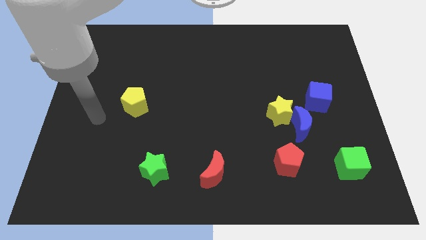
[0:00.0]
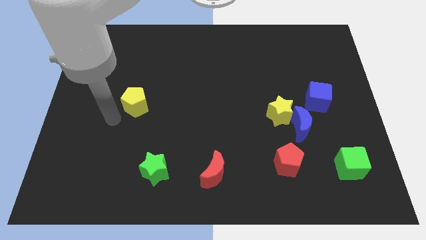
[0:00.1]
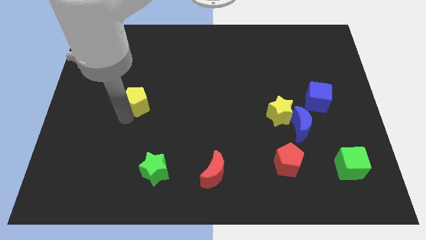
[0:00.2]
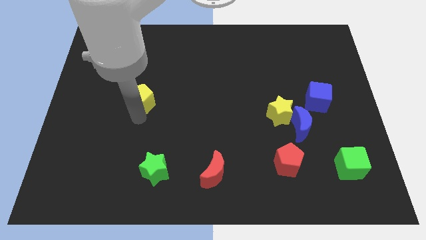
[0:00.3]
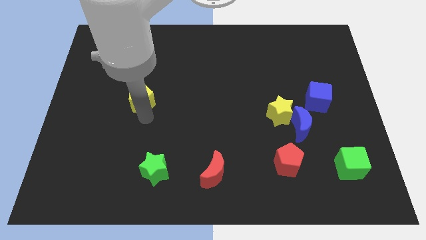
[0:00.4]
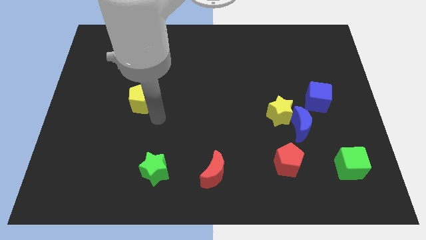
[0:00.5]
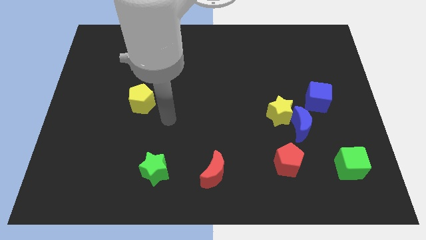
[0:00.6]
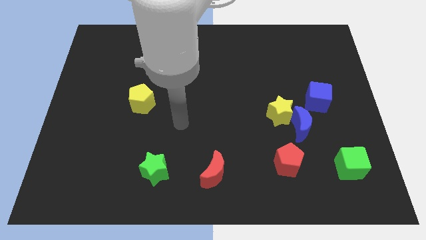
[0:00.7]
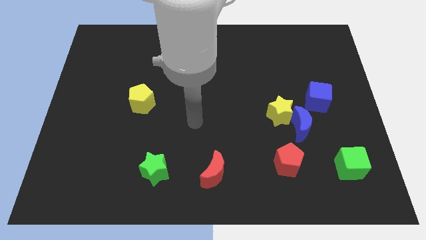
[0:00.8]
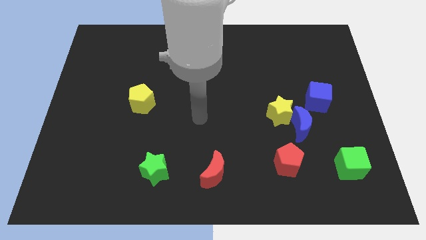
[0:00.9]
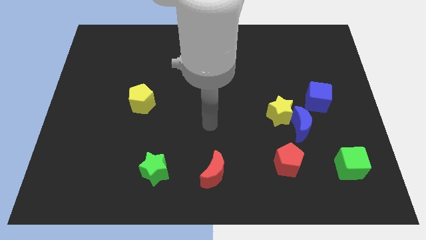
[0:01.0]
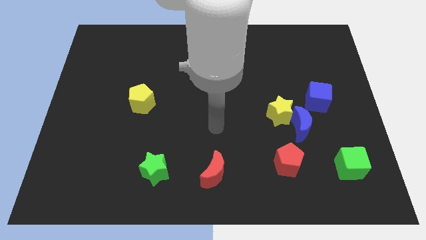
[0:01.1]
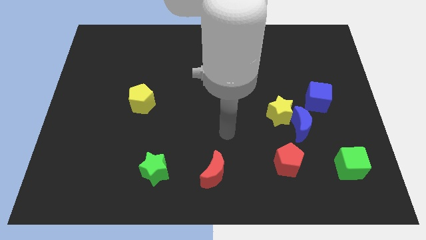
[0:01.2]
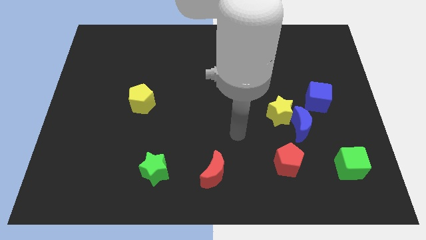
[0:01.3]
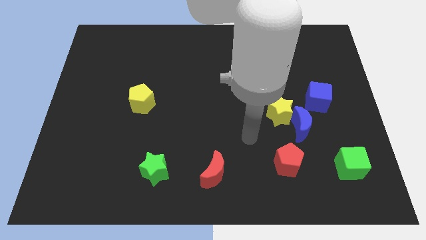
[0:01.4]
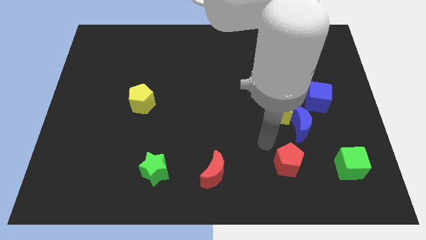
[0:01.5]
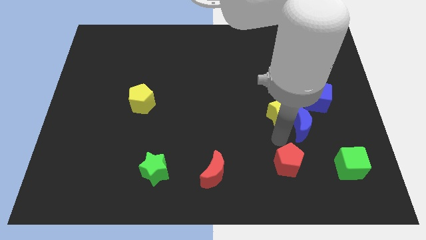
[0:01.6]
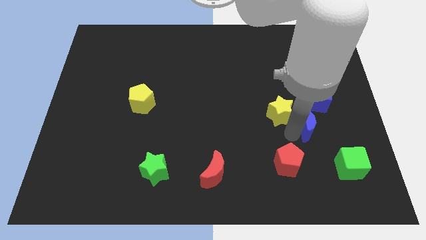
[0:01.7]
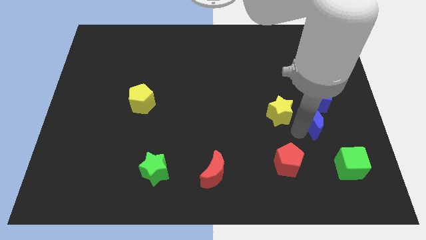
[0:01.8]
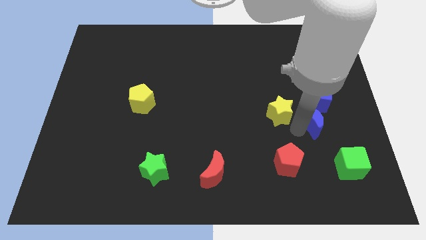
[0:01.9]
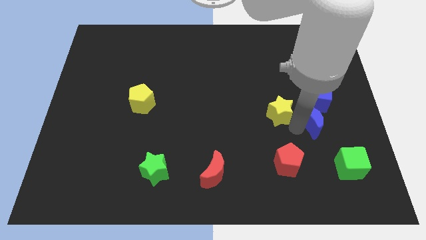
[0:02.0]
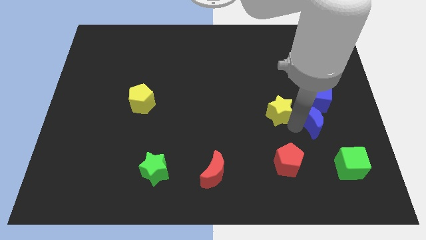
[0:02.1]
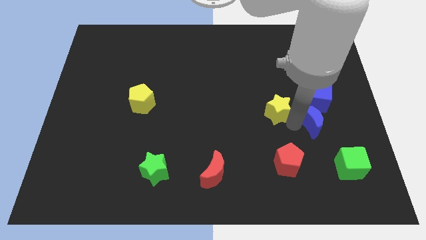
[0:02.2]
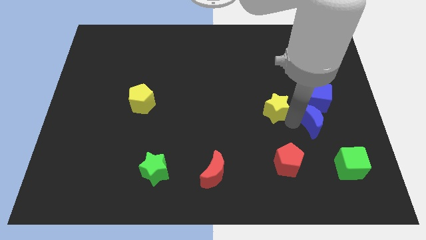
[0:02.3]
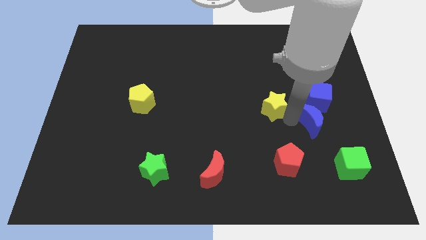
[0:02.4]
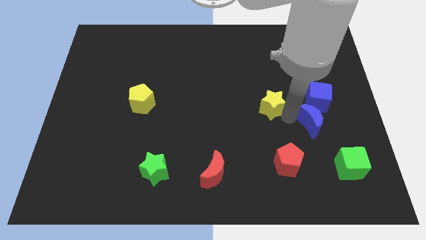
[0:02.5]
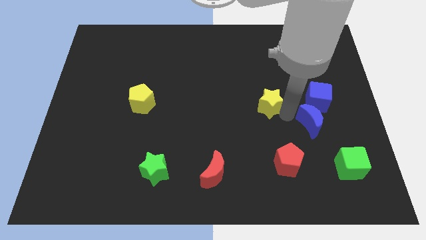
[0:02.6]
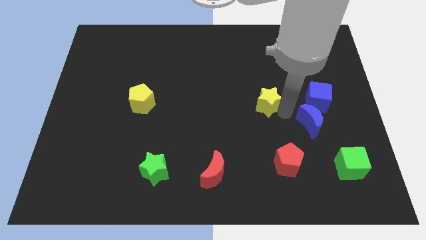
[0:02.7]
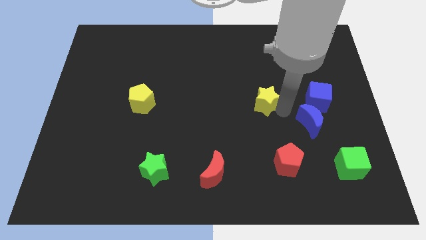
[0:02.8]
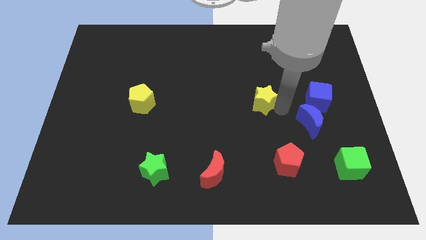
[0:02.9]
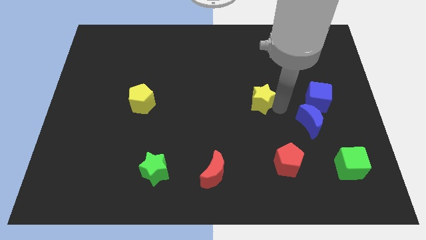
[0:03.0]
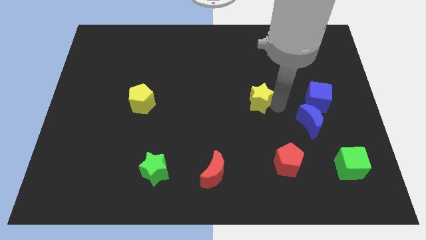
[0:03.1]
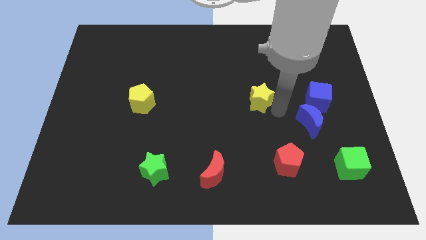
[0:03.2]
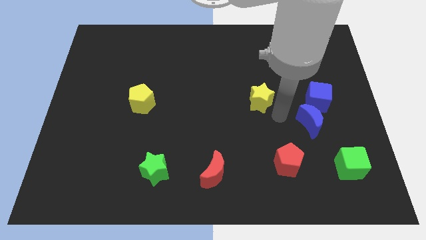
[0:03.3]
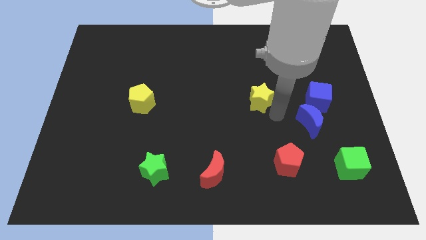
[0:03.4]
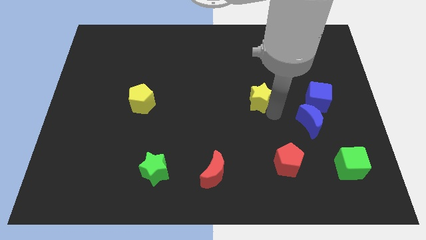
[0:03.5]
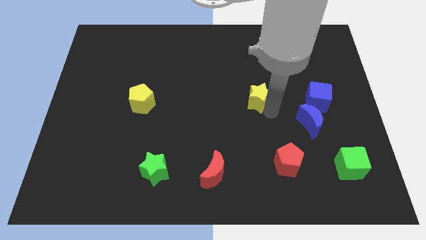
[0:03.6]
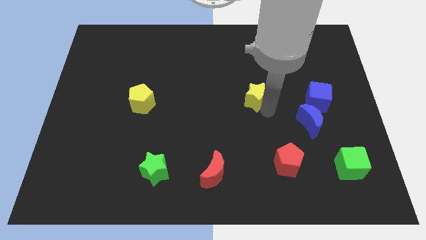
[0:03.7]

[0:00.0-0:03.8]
slide the yellow star a bit up and left

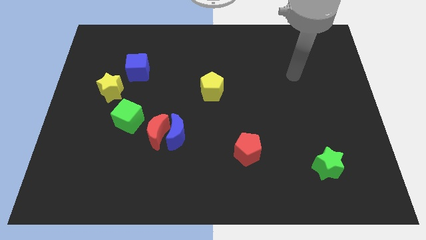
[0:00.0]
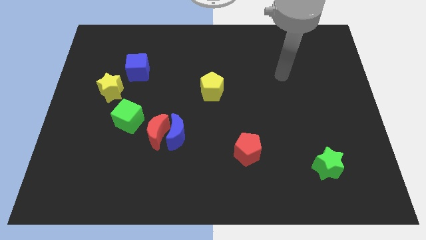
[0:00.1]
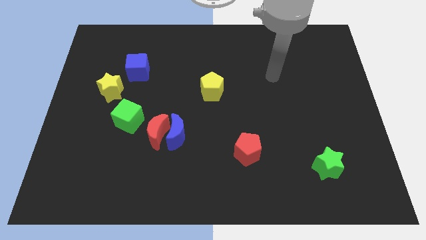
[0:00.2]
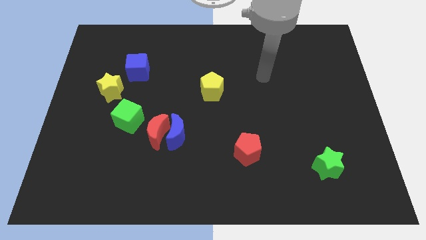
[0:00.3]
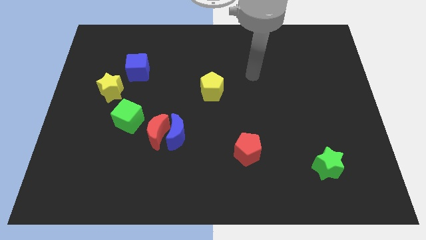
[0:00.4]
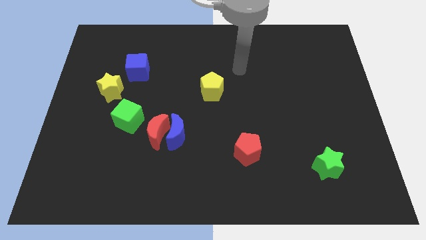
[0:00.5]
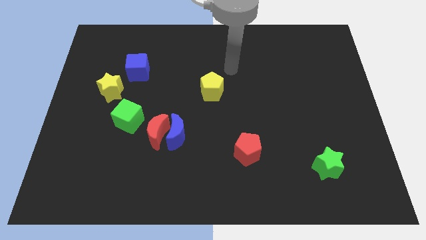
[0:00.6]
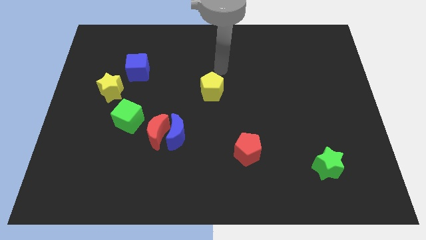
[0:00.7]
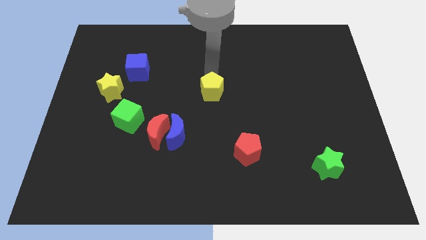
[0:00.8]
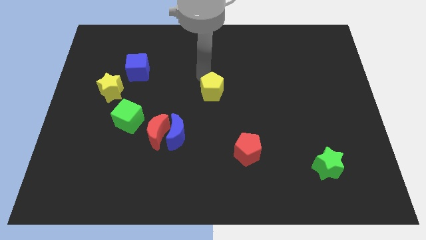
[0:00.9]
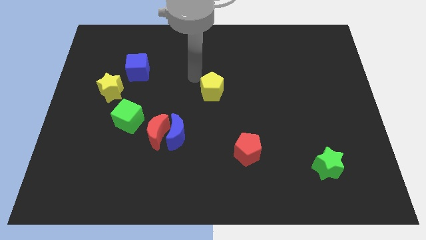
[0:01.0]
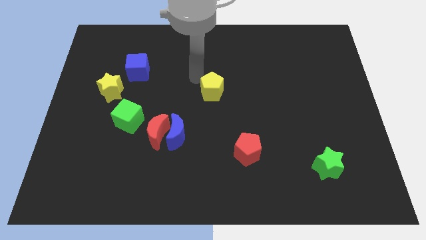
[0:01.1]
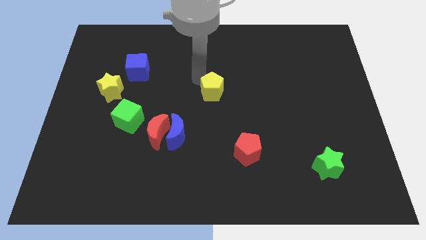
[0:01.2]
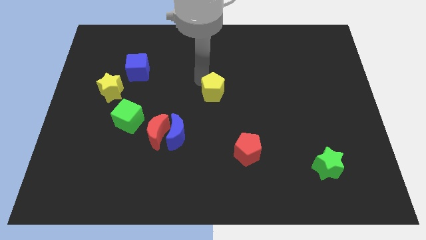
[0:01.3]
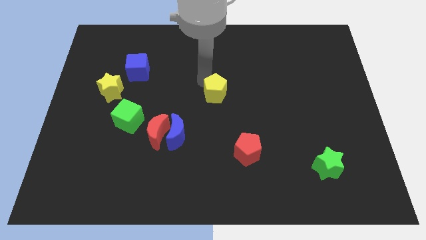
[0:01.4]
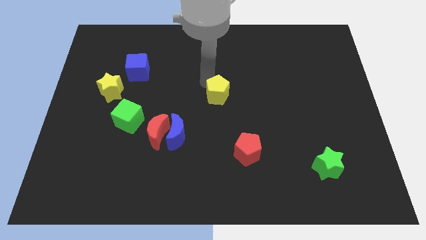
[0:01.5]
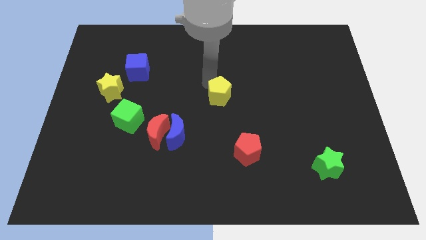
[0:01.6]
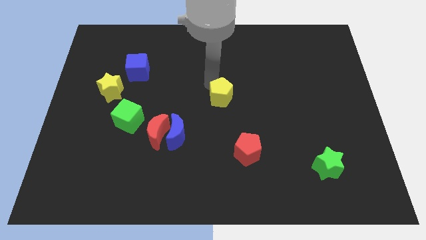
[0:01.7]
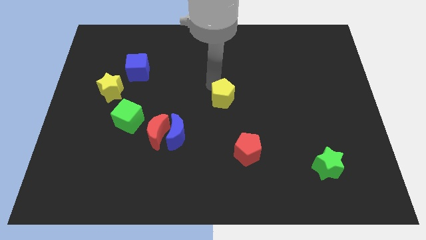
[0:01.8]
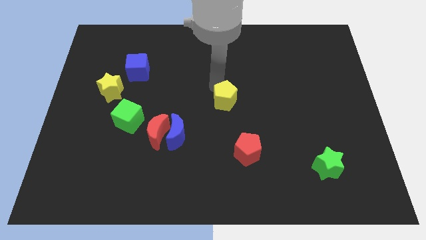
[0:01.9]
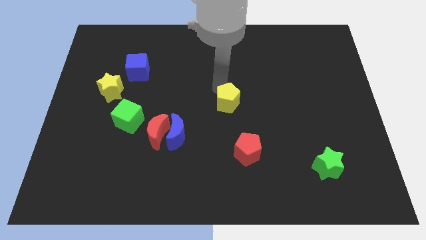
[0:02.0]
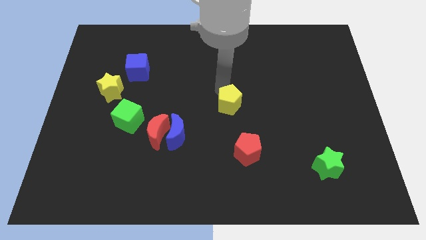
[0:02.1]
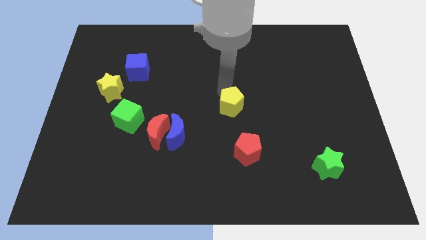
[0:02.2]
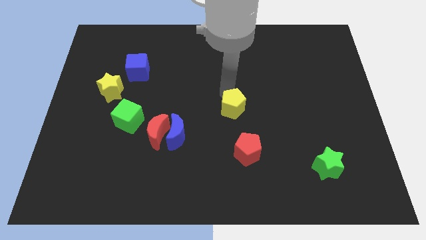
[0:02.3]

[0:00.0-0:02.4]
move the yellow pentagon slightly down and to the right diagonally

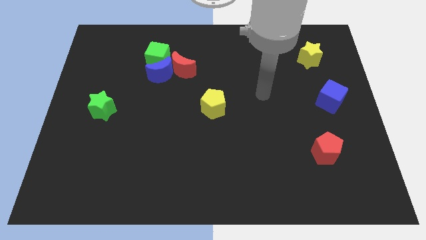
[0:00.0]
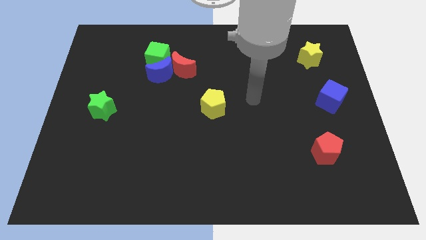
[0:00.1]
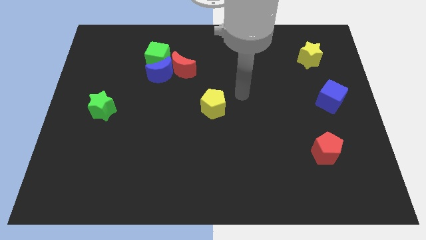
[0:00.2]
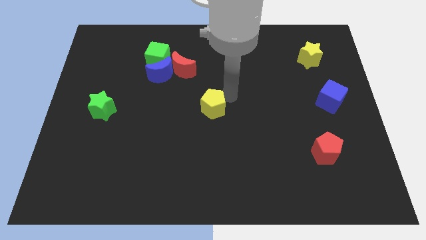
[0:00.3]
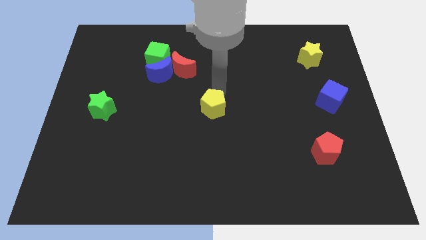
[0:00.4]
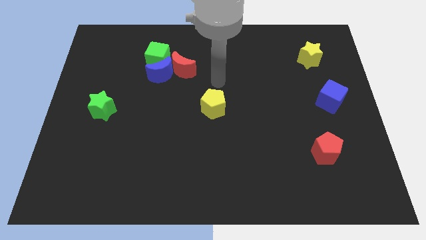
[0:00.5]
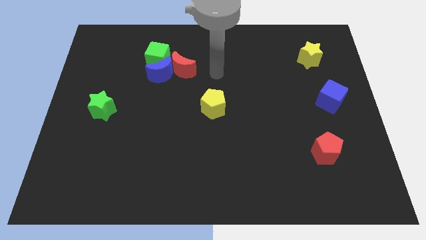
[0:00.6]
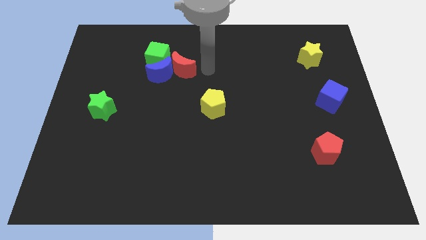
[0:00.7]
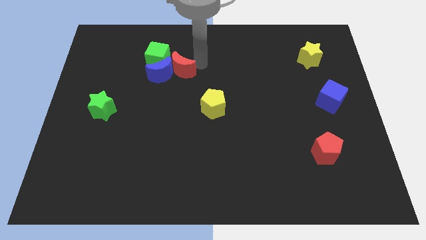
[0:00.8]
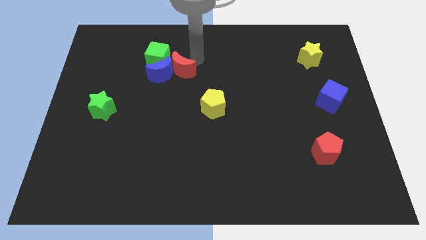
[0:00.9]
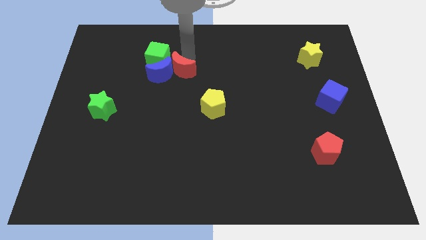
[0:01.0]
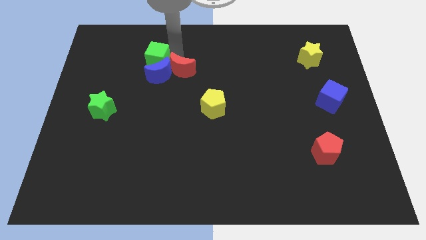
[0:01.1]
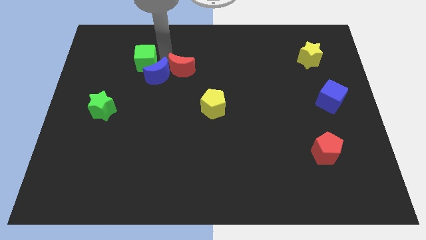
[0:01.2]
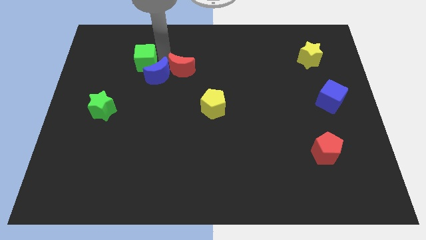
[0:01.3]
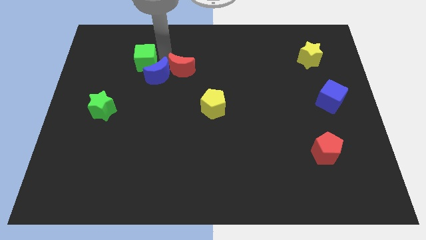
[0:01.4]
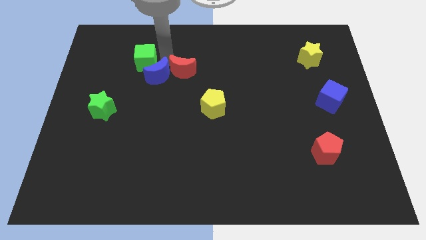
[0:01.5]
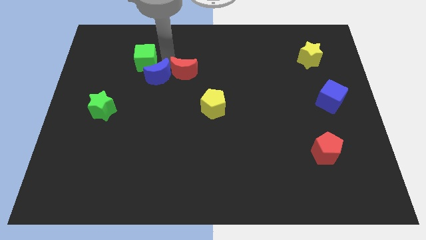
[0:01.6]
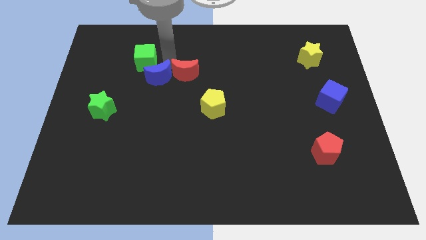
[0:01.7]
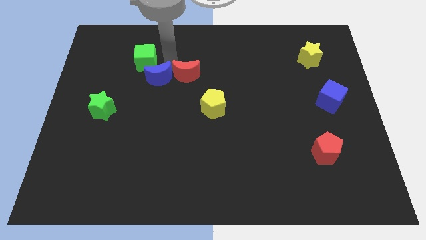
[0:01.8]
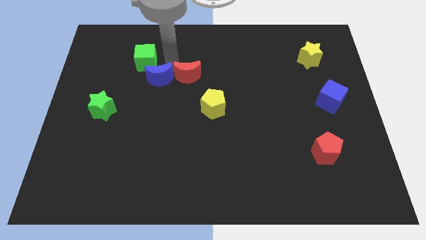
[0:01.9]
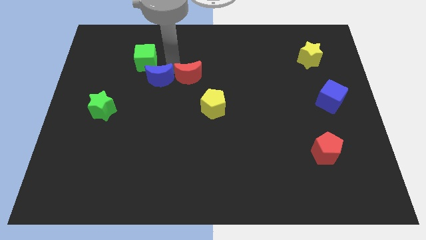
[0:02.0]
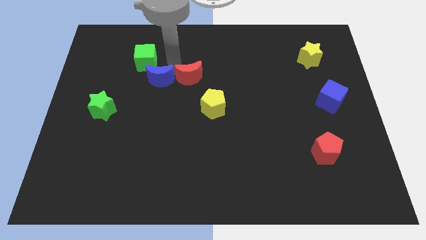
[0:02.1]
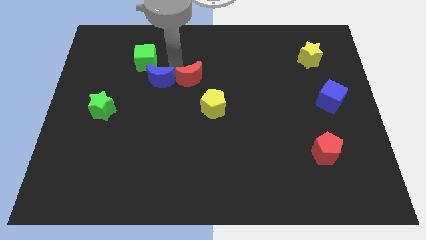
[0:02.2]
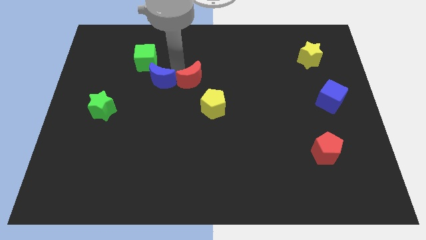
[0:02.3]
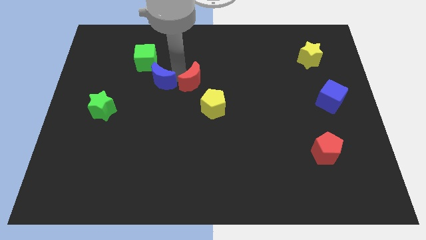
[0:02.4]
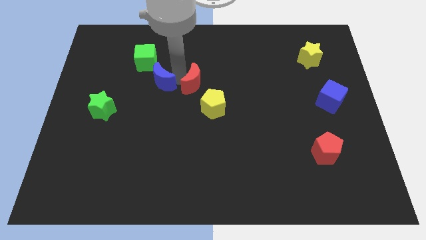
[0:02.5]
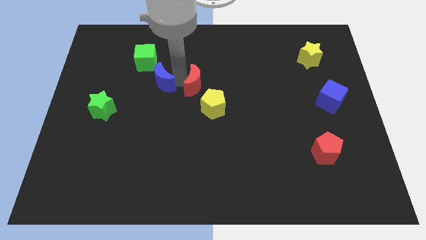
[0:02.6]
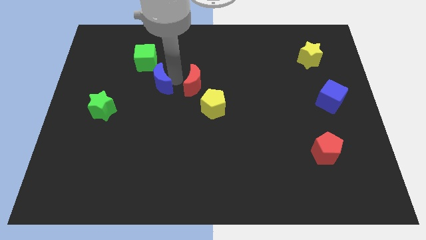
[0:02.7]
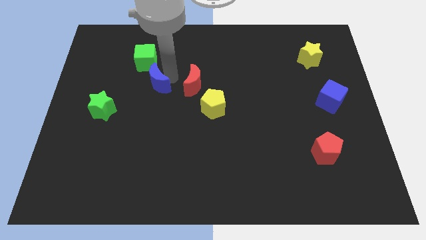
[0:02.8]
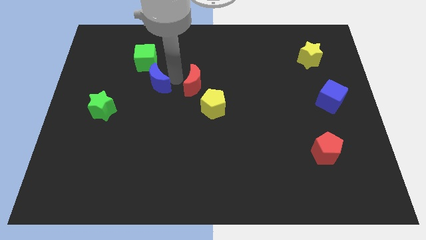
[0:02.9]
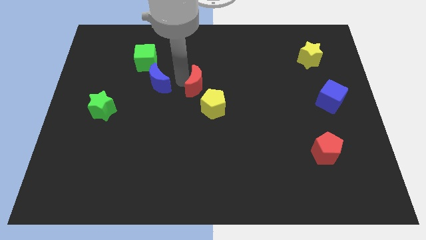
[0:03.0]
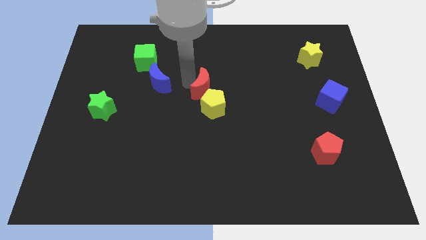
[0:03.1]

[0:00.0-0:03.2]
slightly push the red moon downwards and then to the right
